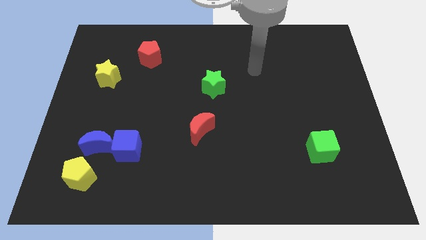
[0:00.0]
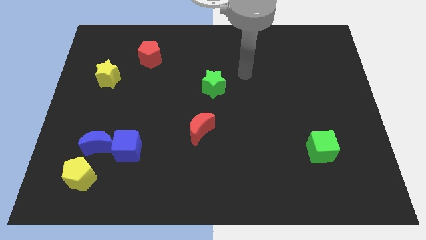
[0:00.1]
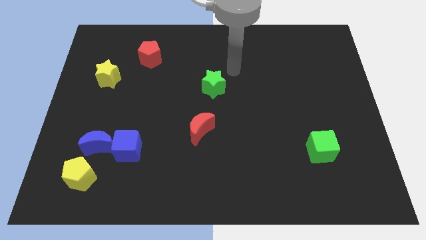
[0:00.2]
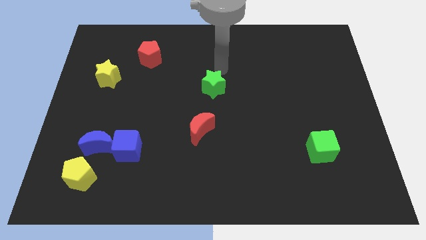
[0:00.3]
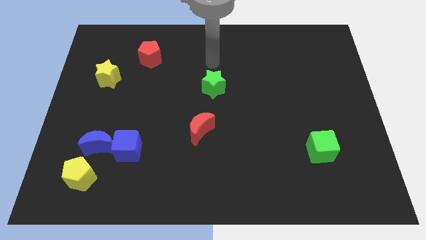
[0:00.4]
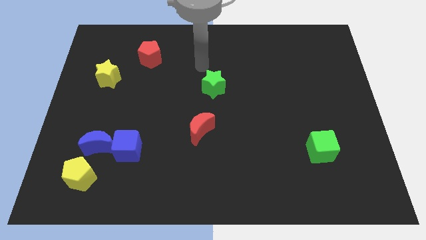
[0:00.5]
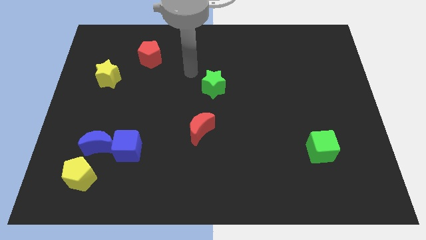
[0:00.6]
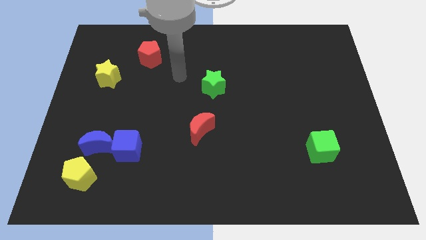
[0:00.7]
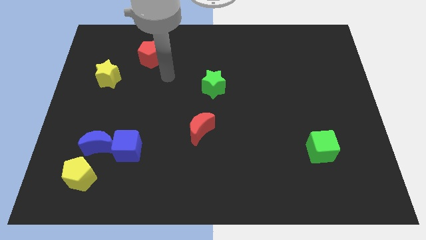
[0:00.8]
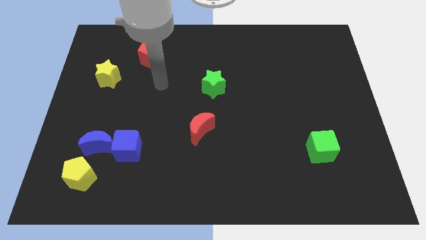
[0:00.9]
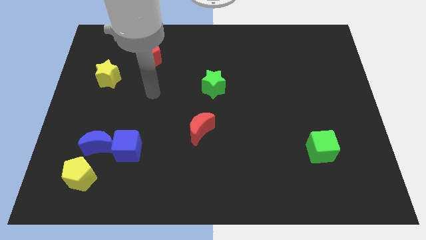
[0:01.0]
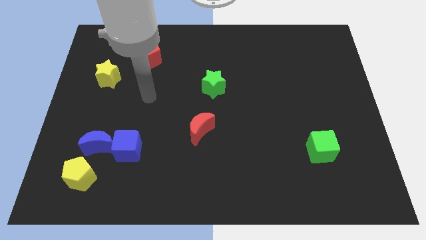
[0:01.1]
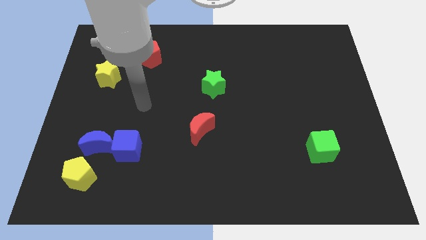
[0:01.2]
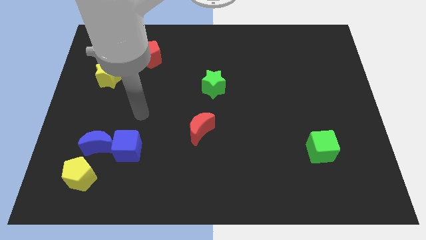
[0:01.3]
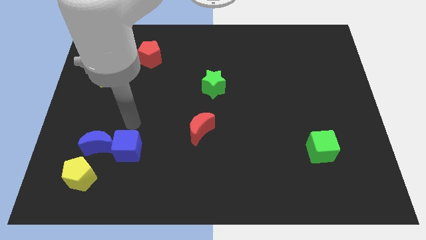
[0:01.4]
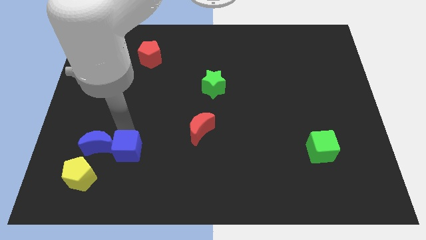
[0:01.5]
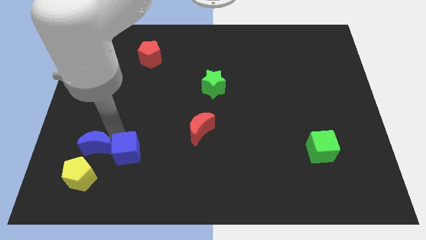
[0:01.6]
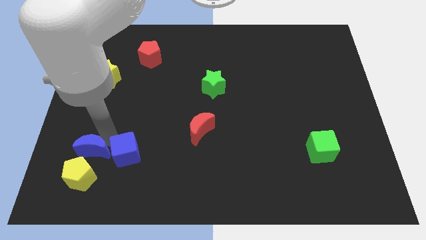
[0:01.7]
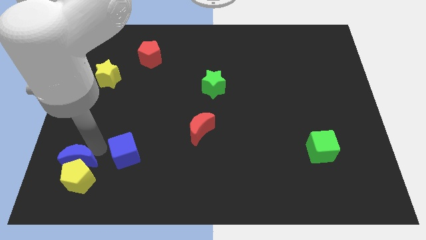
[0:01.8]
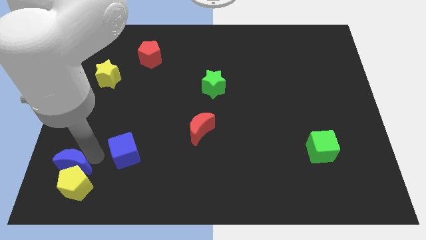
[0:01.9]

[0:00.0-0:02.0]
pull the blue cube apart from the blue moon

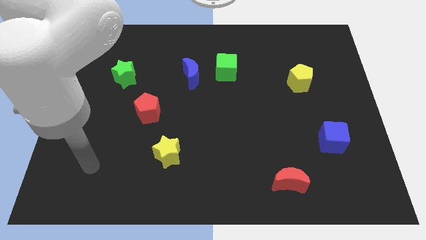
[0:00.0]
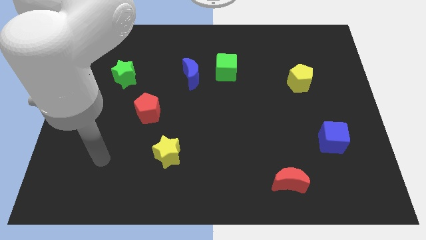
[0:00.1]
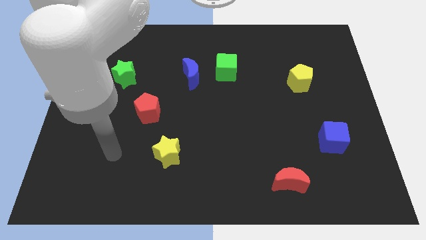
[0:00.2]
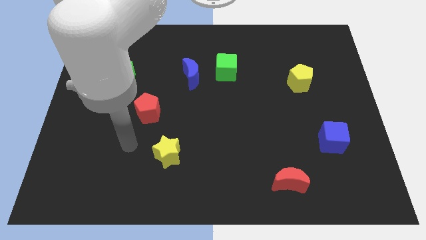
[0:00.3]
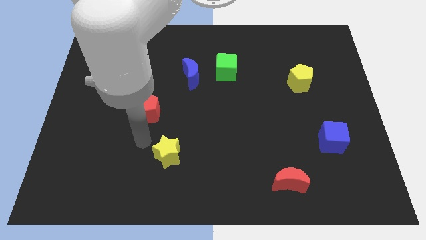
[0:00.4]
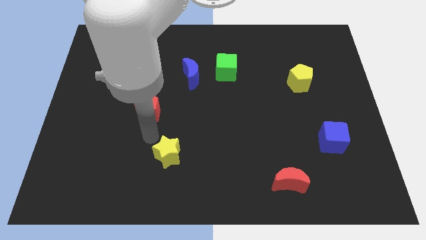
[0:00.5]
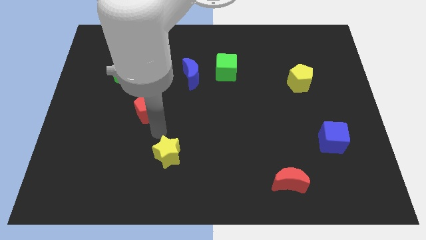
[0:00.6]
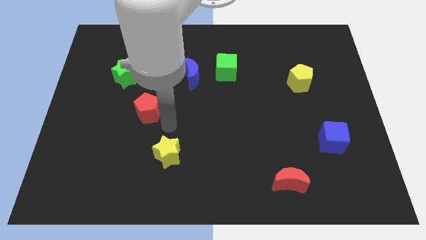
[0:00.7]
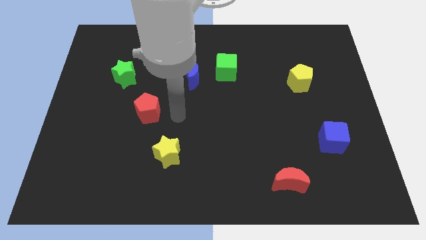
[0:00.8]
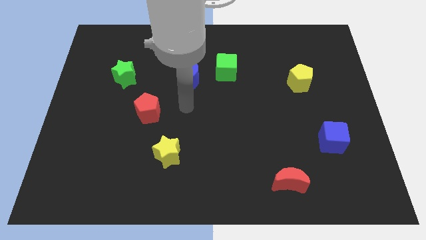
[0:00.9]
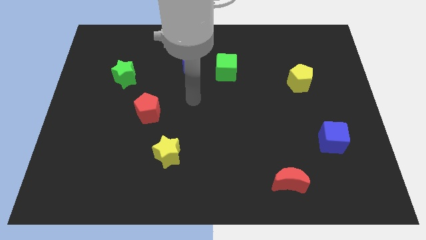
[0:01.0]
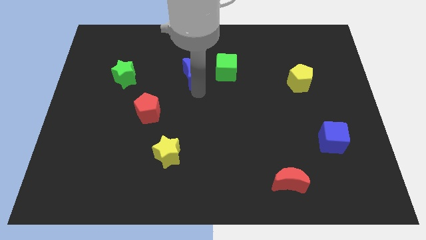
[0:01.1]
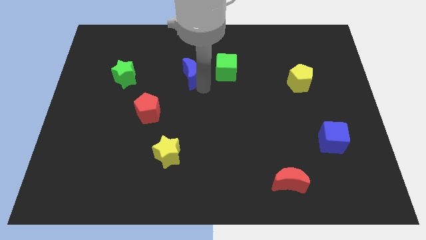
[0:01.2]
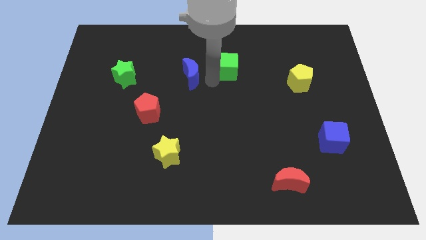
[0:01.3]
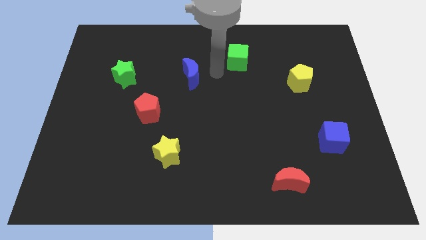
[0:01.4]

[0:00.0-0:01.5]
pull the blue moon apart from the green cube

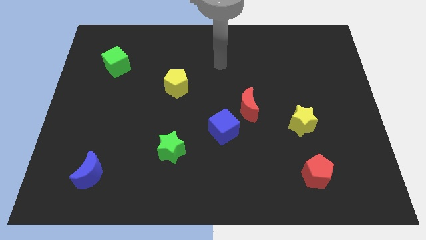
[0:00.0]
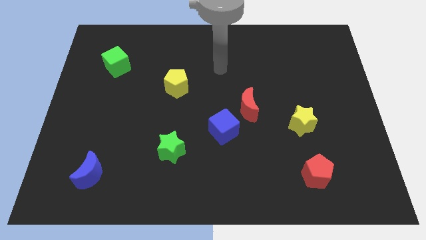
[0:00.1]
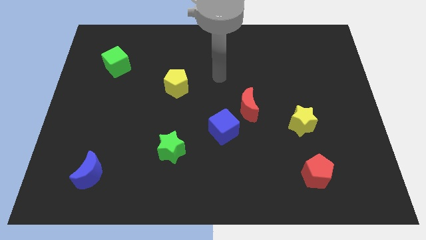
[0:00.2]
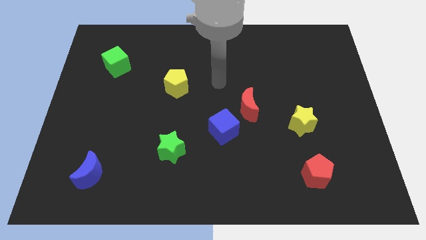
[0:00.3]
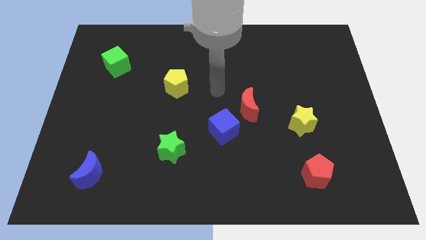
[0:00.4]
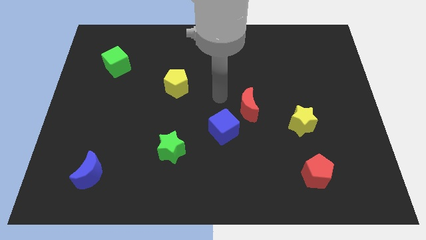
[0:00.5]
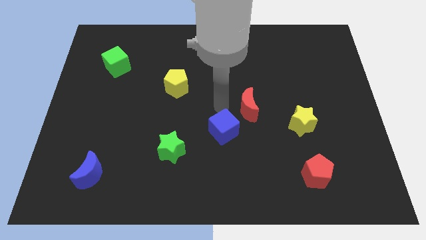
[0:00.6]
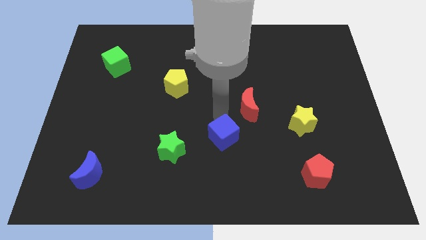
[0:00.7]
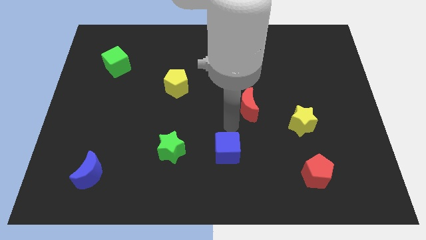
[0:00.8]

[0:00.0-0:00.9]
separate the red moon from the blue cube

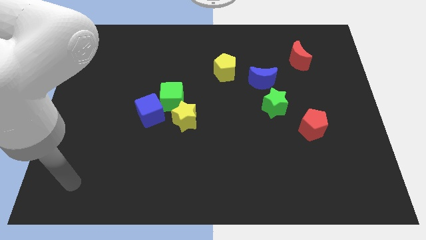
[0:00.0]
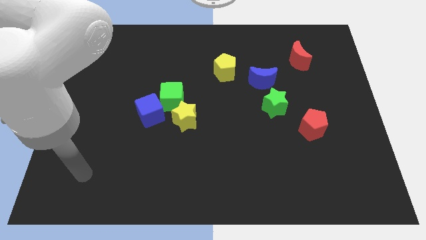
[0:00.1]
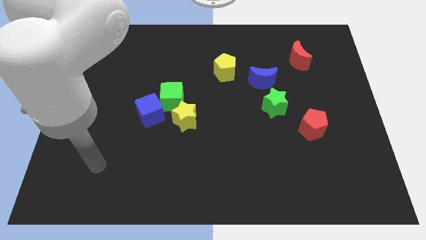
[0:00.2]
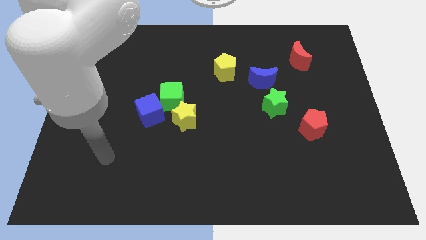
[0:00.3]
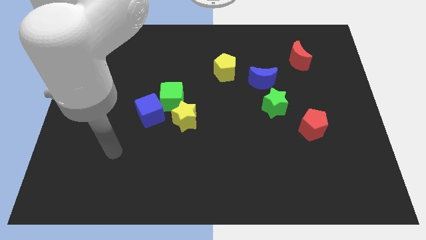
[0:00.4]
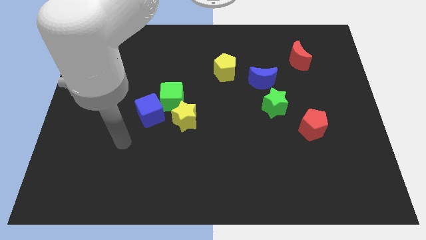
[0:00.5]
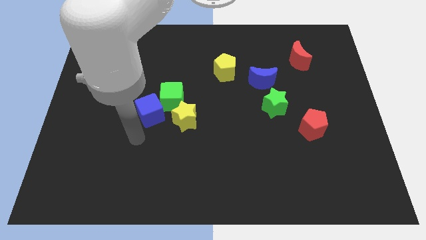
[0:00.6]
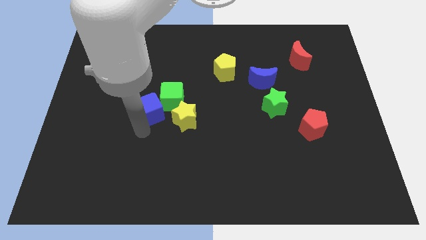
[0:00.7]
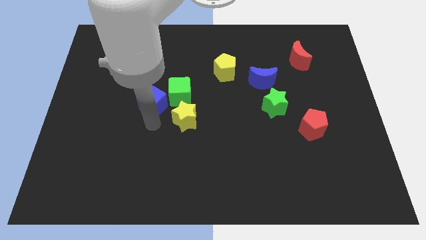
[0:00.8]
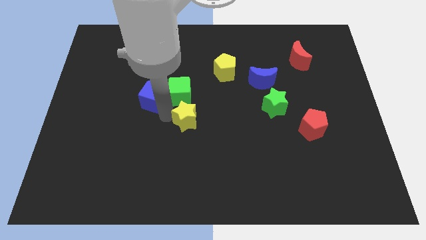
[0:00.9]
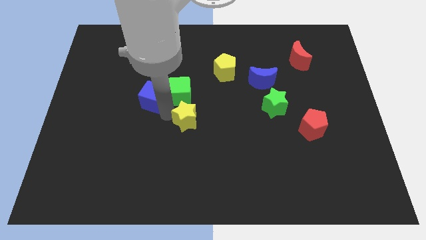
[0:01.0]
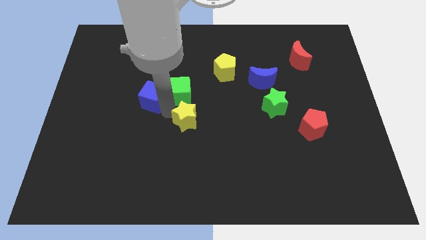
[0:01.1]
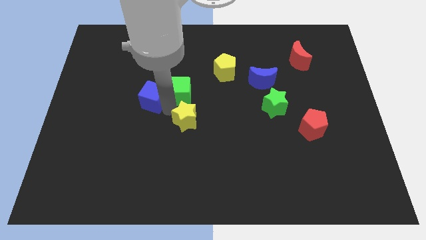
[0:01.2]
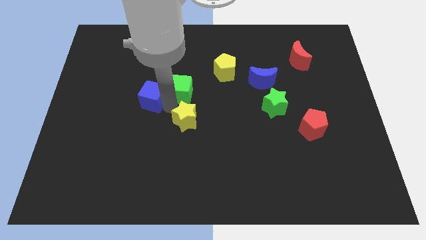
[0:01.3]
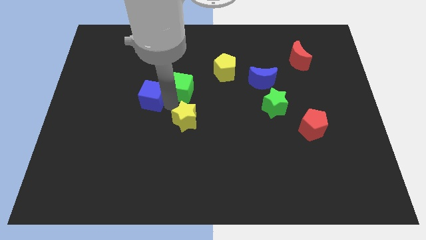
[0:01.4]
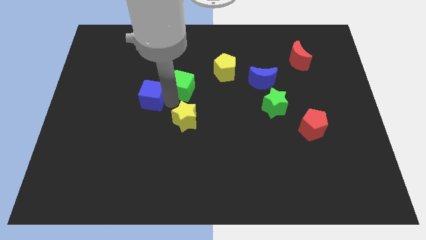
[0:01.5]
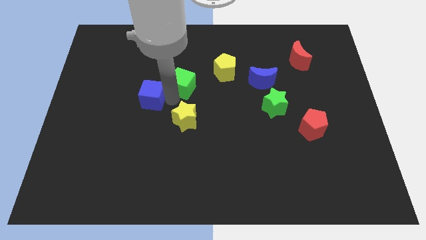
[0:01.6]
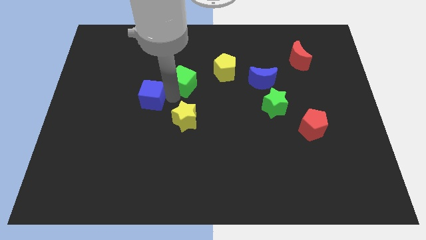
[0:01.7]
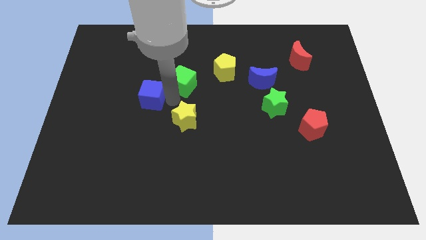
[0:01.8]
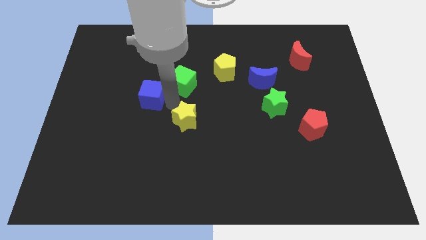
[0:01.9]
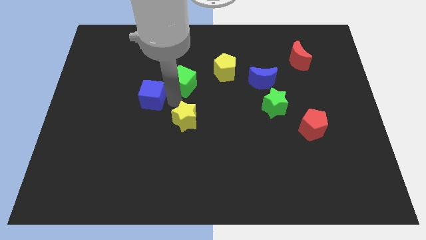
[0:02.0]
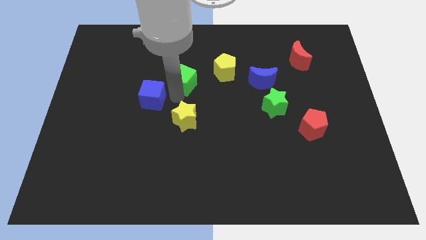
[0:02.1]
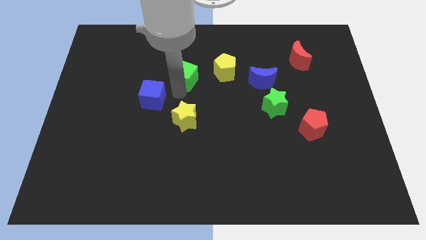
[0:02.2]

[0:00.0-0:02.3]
pull the green cube apart from the blue cube and yellow star

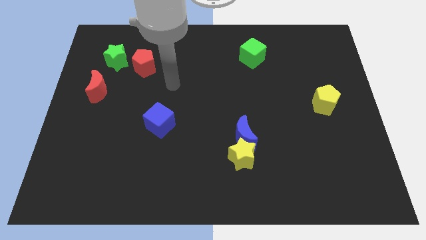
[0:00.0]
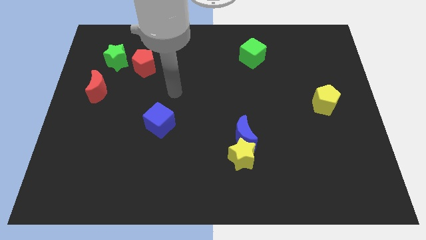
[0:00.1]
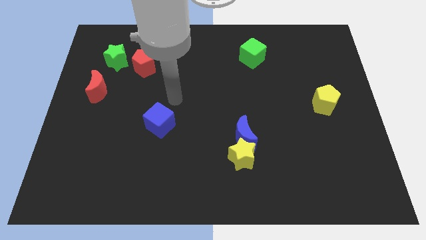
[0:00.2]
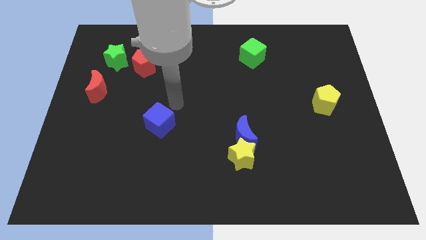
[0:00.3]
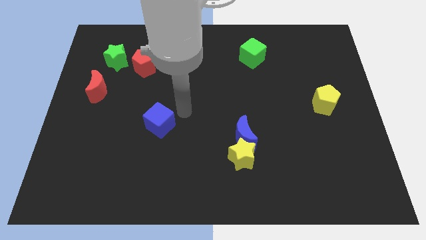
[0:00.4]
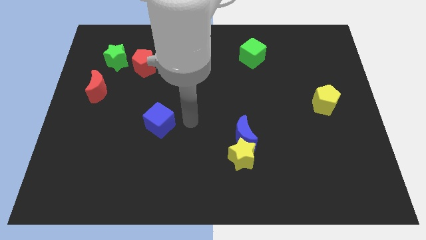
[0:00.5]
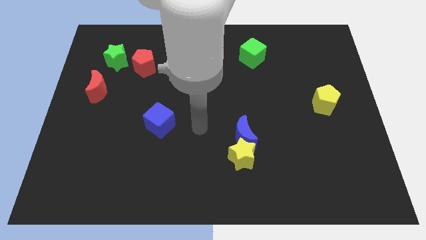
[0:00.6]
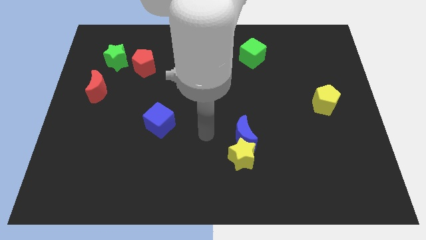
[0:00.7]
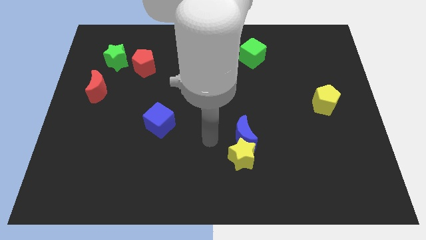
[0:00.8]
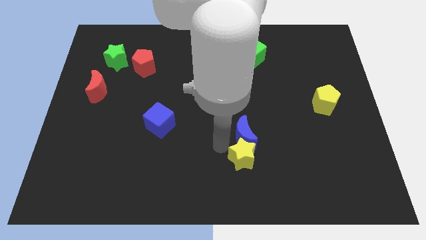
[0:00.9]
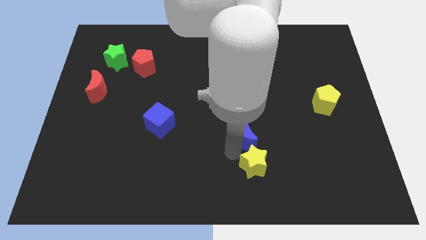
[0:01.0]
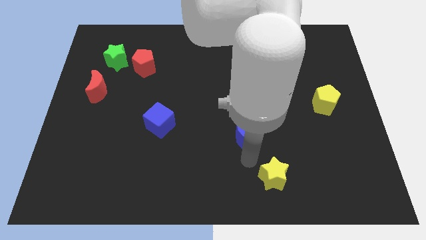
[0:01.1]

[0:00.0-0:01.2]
move the blue moon away from the yellow star

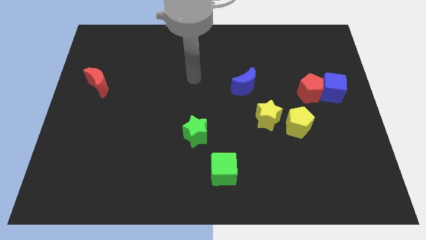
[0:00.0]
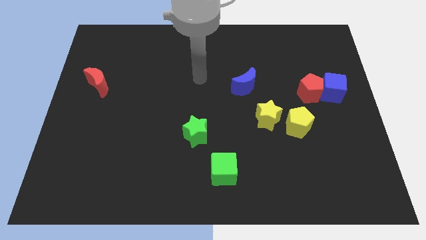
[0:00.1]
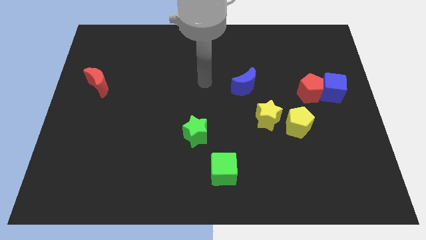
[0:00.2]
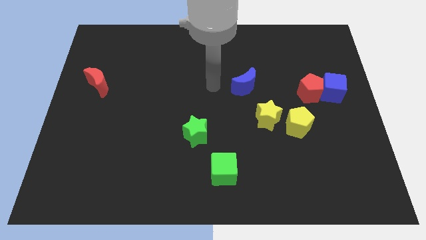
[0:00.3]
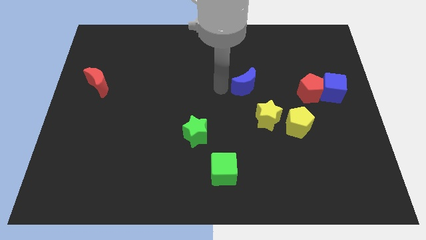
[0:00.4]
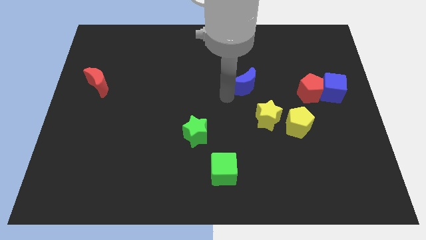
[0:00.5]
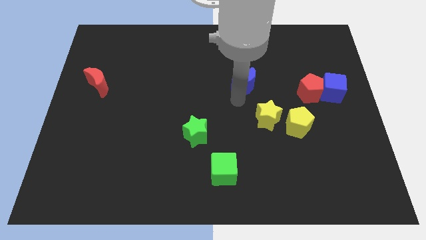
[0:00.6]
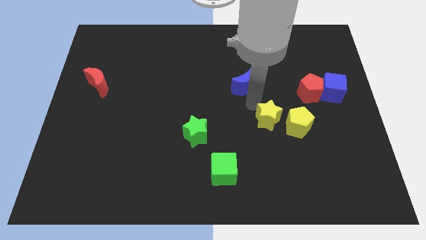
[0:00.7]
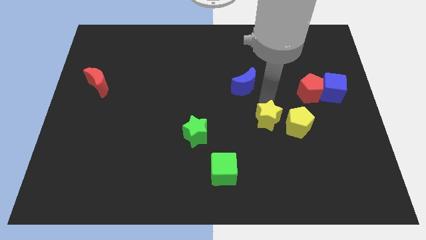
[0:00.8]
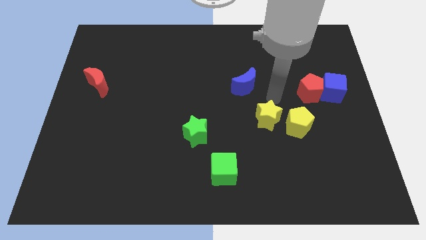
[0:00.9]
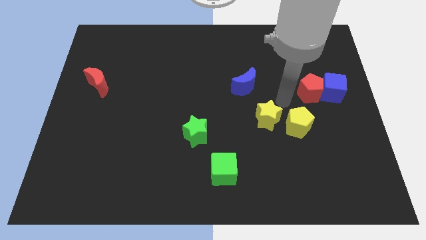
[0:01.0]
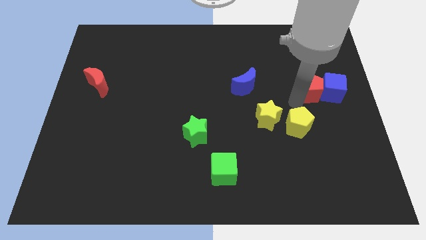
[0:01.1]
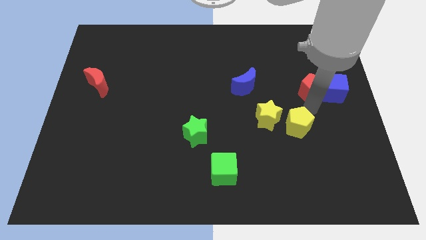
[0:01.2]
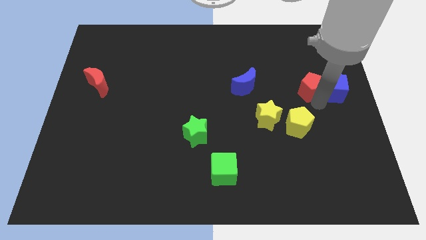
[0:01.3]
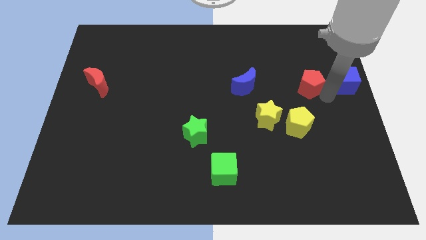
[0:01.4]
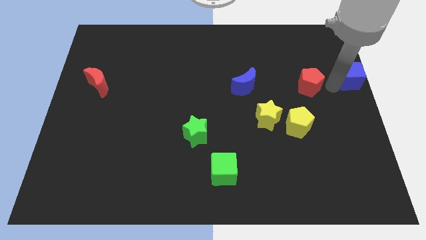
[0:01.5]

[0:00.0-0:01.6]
move the red pentagon away from the blue cube
